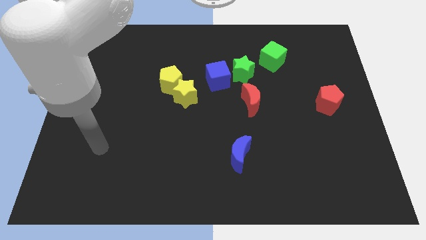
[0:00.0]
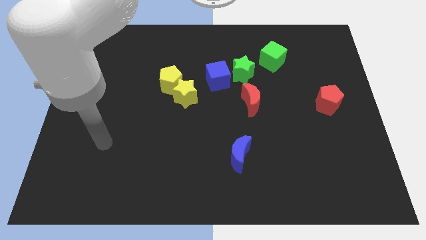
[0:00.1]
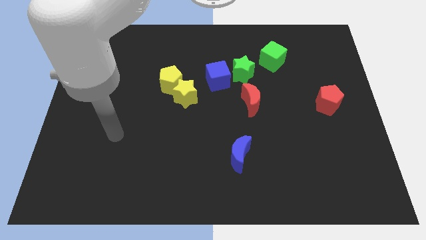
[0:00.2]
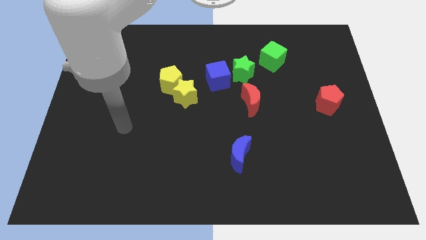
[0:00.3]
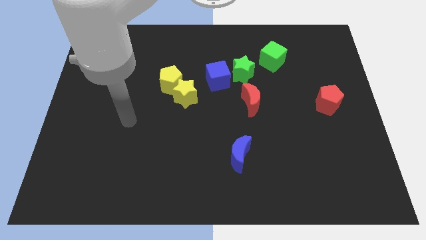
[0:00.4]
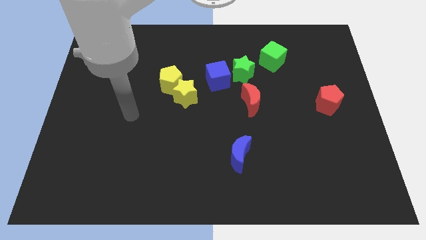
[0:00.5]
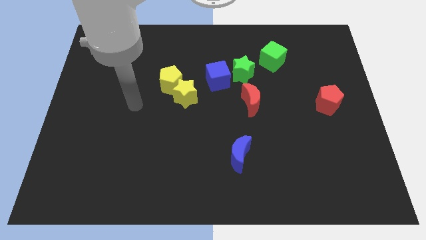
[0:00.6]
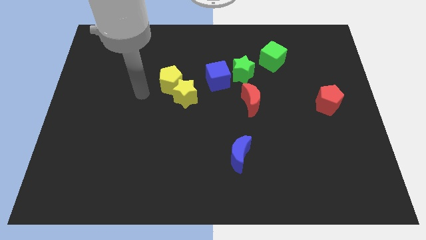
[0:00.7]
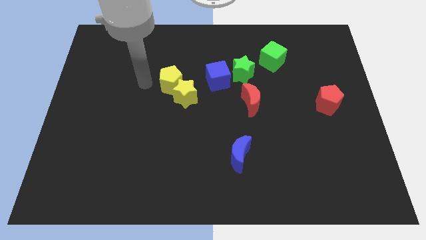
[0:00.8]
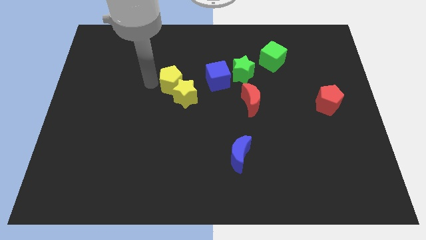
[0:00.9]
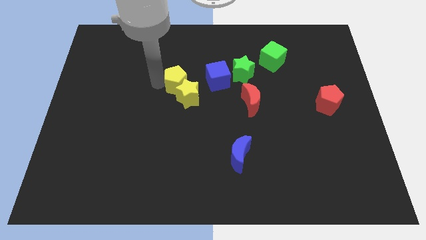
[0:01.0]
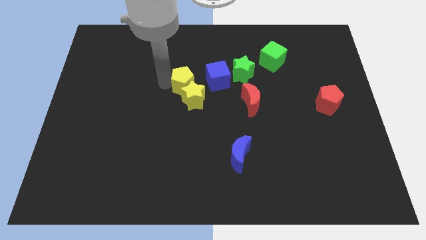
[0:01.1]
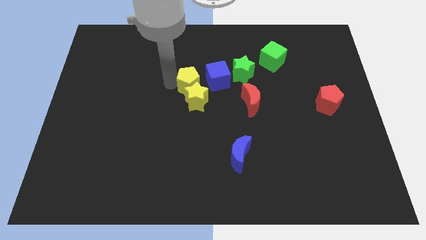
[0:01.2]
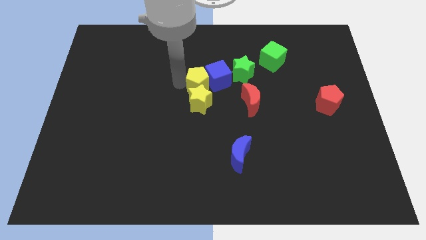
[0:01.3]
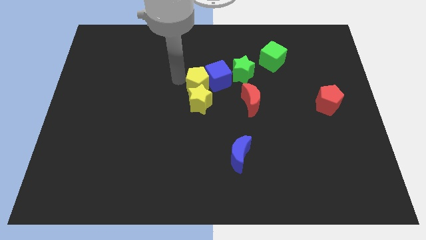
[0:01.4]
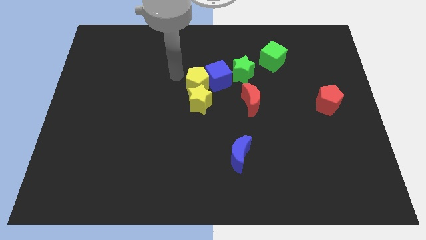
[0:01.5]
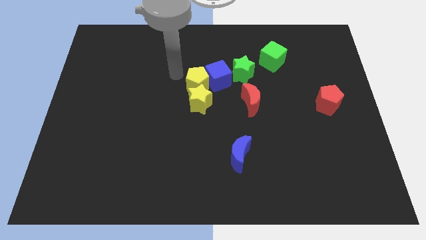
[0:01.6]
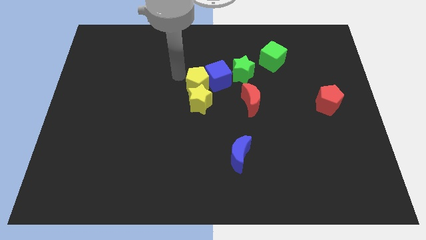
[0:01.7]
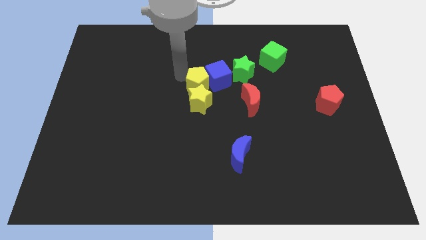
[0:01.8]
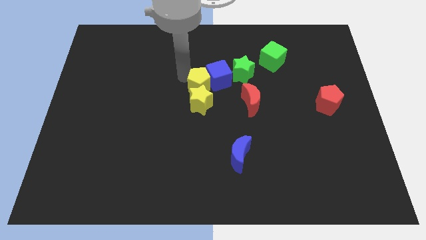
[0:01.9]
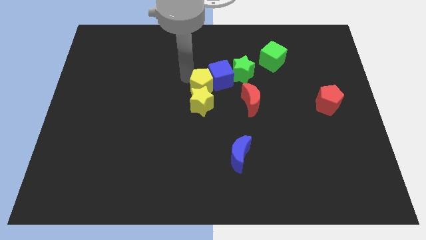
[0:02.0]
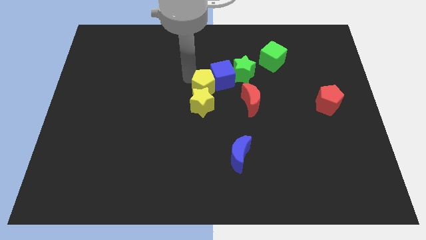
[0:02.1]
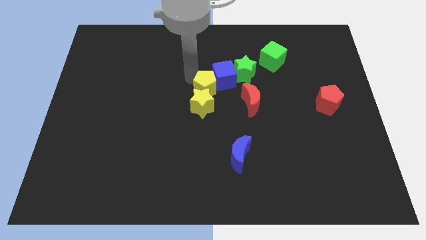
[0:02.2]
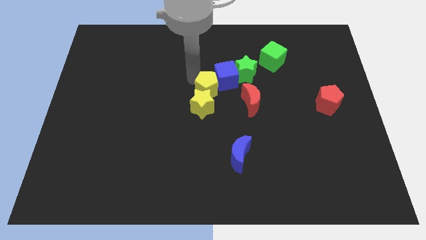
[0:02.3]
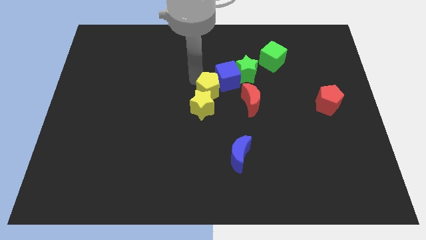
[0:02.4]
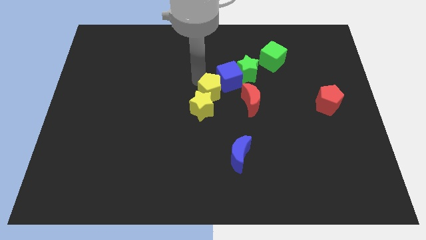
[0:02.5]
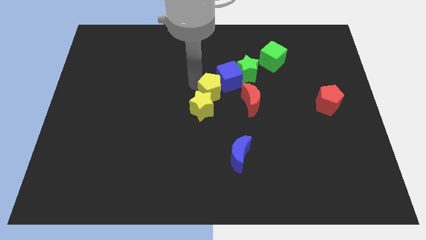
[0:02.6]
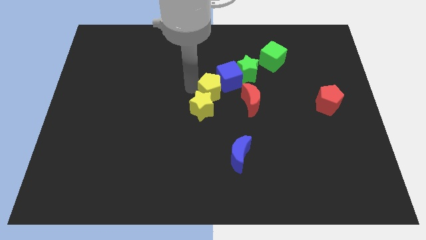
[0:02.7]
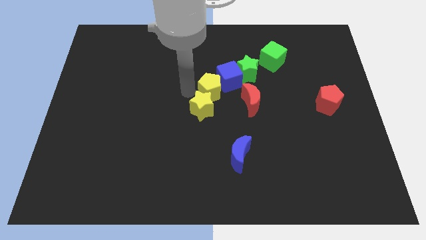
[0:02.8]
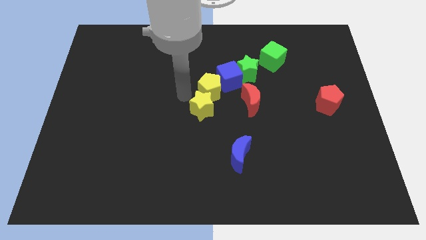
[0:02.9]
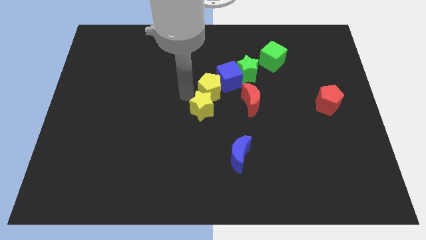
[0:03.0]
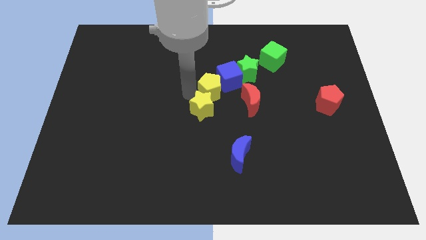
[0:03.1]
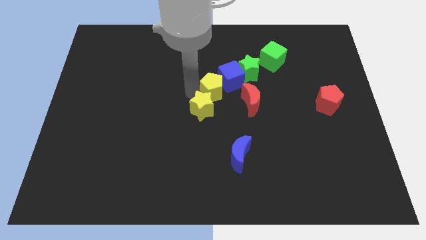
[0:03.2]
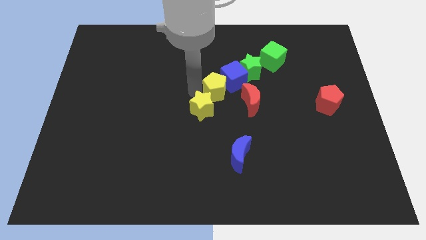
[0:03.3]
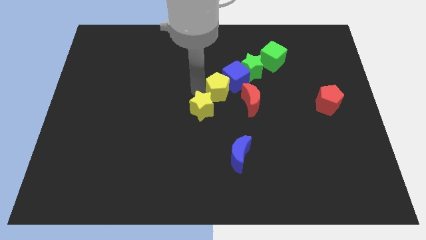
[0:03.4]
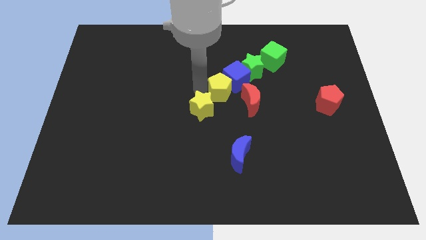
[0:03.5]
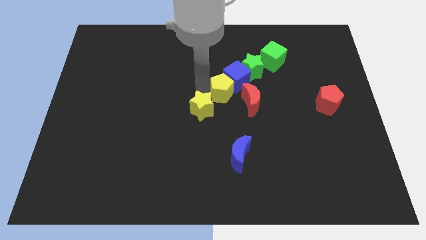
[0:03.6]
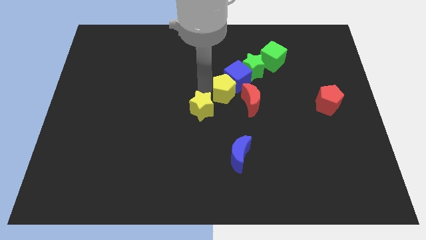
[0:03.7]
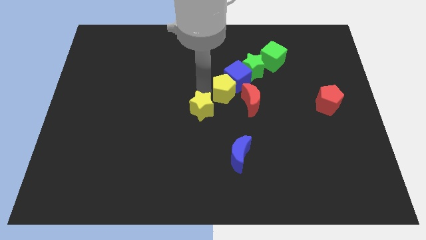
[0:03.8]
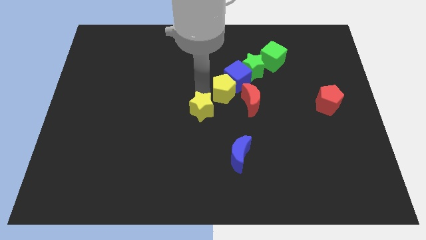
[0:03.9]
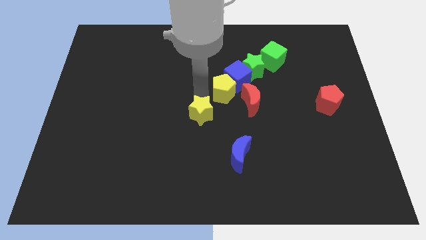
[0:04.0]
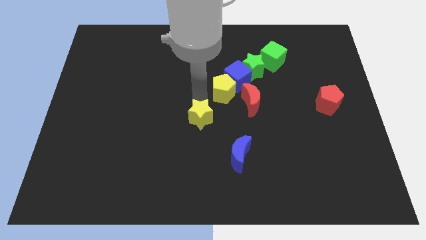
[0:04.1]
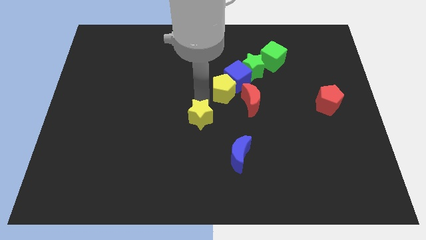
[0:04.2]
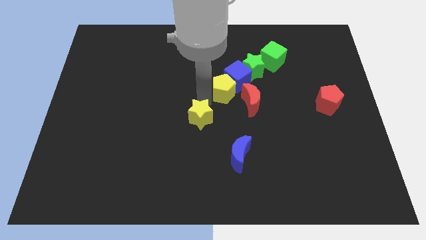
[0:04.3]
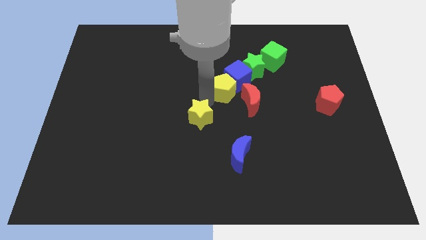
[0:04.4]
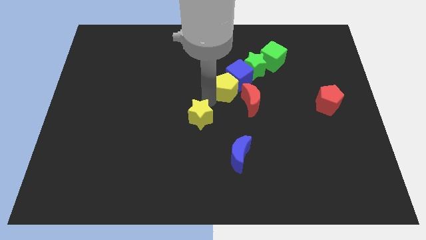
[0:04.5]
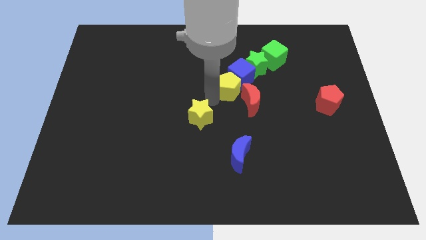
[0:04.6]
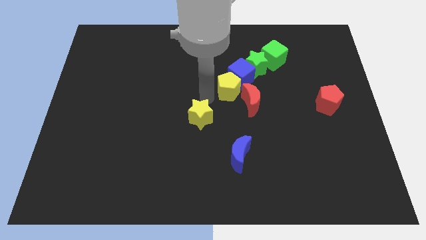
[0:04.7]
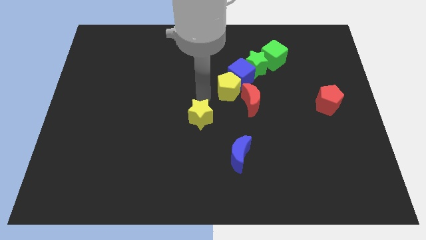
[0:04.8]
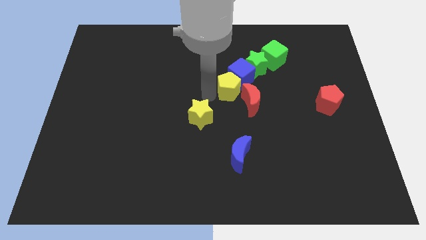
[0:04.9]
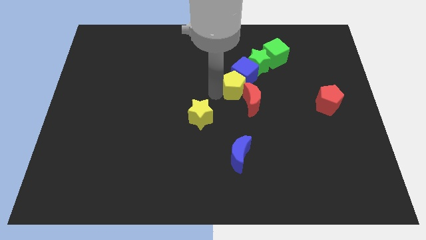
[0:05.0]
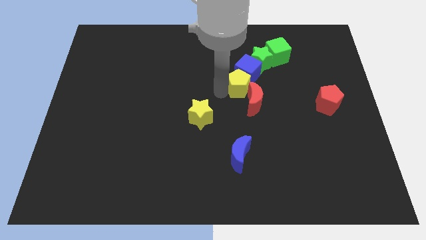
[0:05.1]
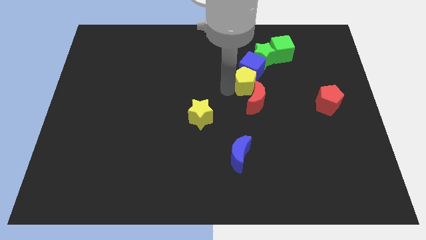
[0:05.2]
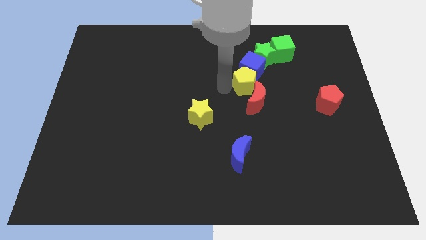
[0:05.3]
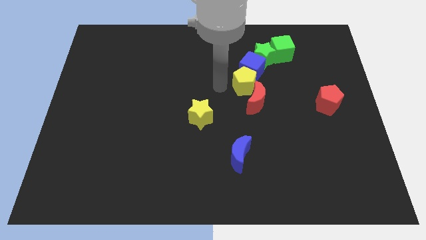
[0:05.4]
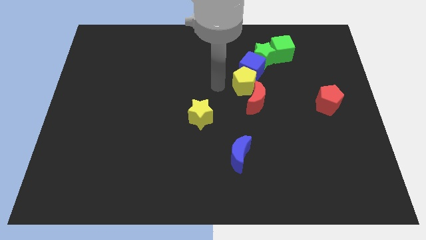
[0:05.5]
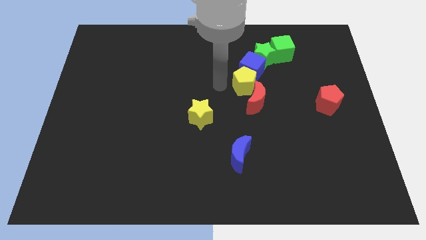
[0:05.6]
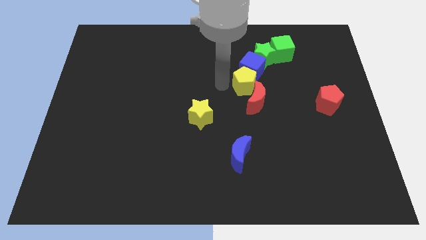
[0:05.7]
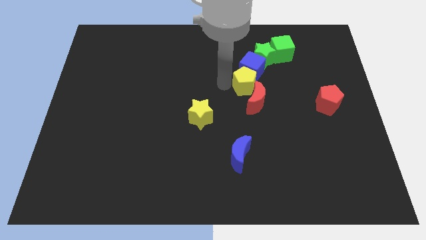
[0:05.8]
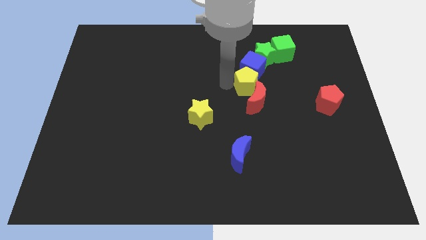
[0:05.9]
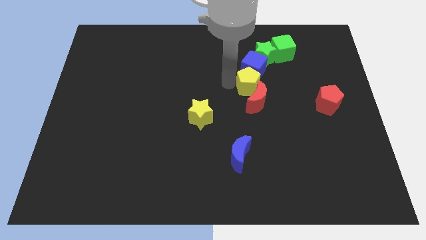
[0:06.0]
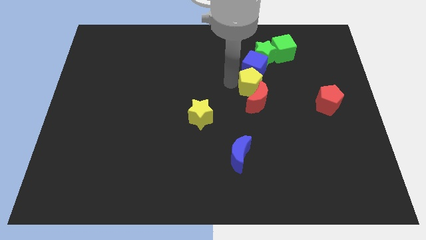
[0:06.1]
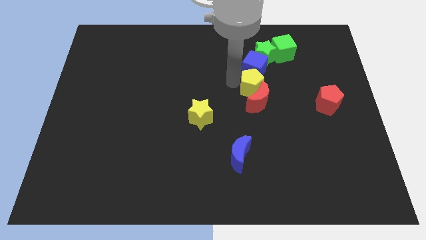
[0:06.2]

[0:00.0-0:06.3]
push the yellow pentagon to the right

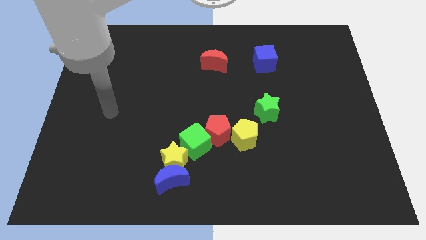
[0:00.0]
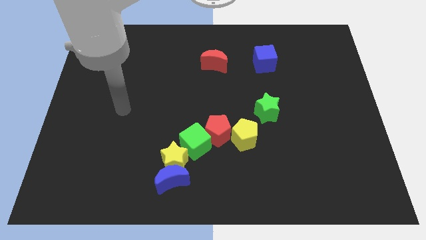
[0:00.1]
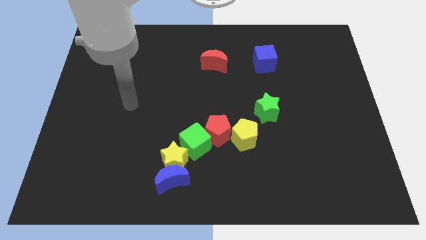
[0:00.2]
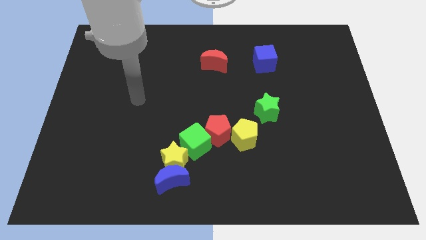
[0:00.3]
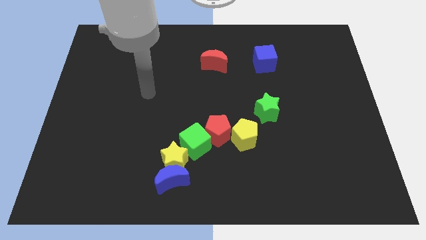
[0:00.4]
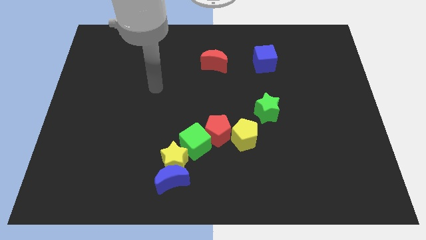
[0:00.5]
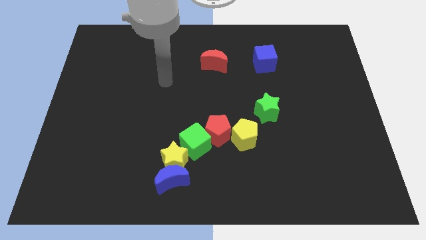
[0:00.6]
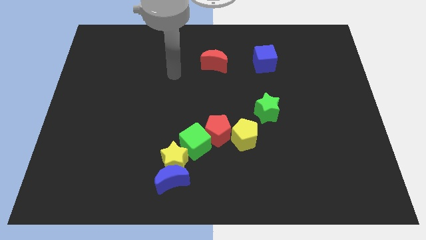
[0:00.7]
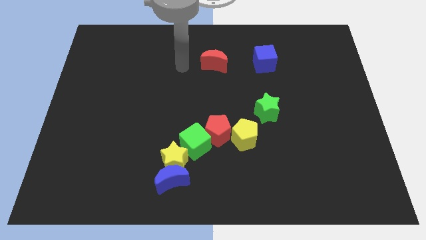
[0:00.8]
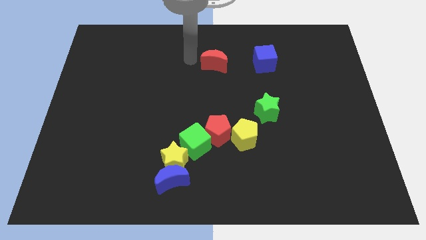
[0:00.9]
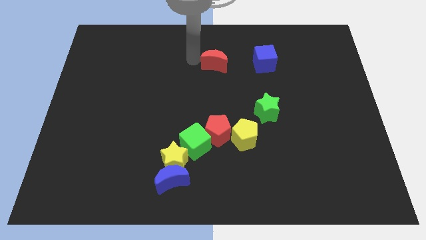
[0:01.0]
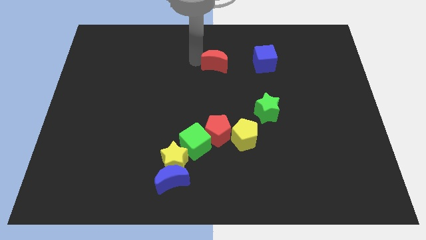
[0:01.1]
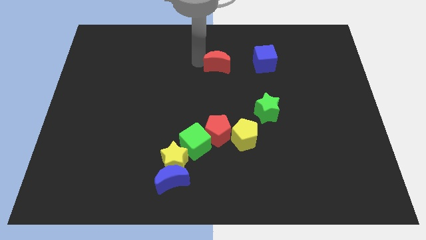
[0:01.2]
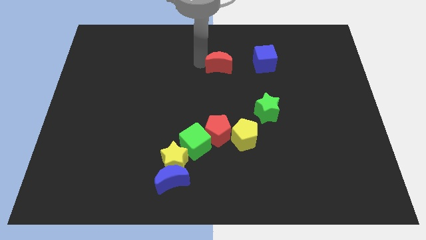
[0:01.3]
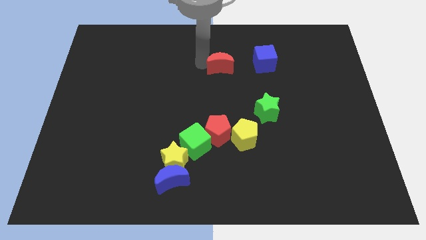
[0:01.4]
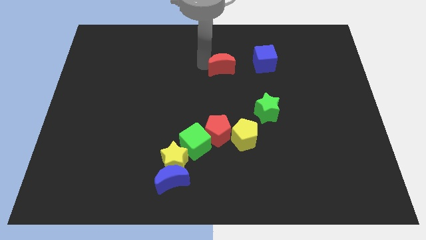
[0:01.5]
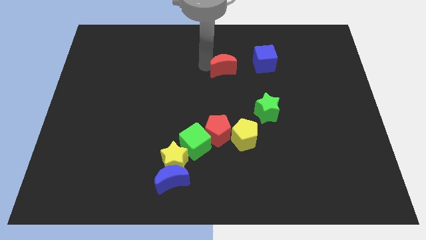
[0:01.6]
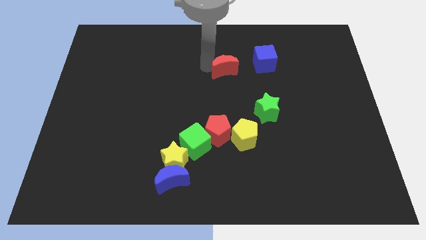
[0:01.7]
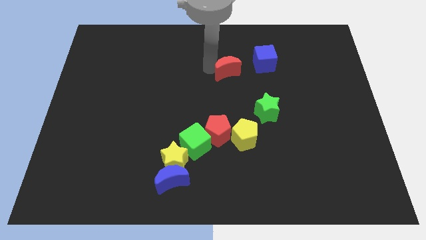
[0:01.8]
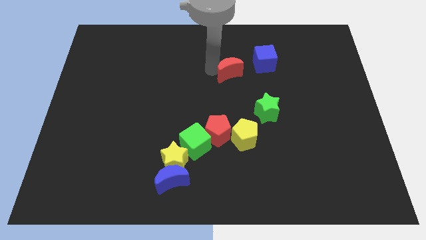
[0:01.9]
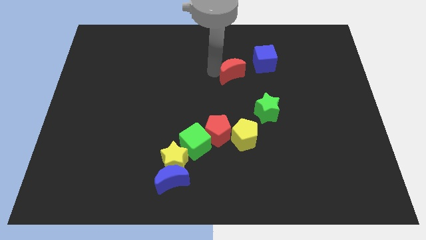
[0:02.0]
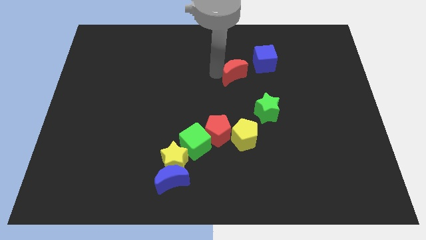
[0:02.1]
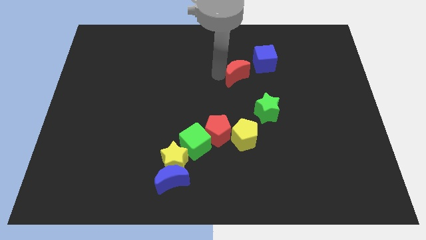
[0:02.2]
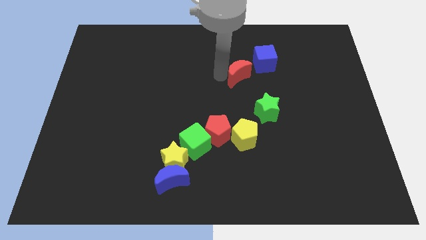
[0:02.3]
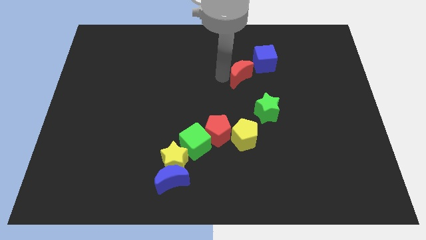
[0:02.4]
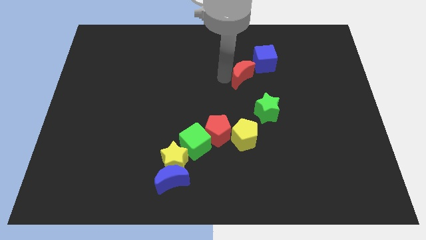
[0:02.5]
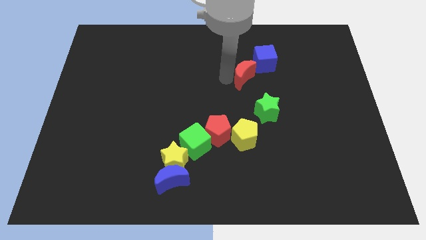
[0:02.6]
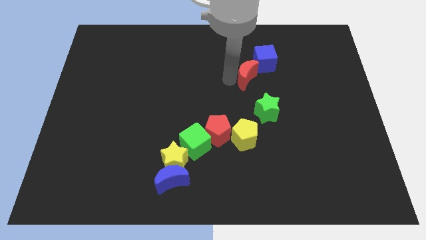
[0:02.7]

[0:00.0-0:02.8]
slide the red moon right a little
